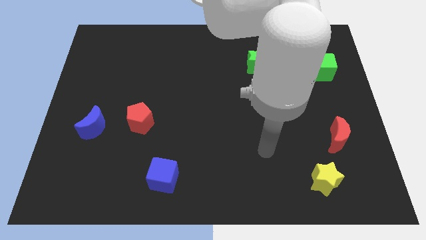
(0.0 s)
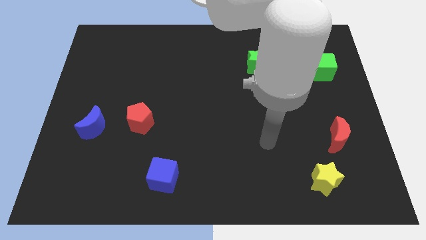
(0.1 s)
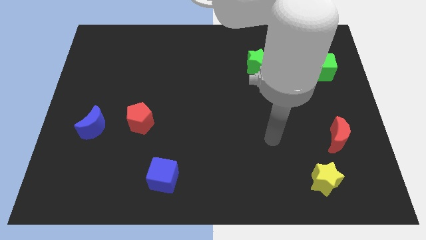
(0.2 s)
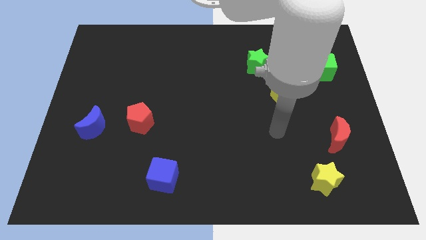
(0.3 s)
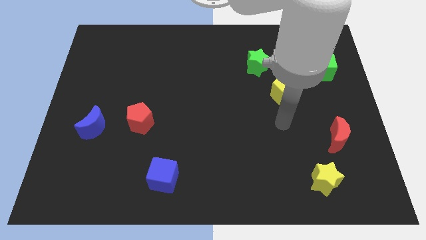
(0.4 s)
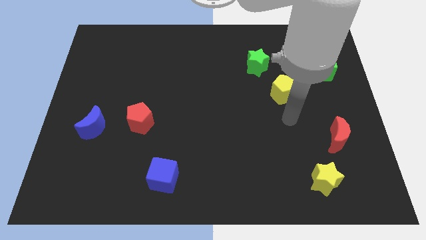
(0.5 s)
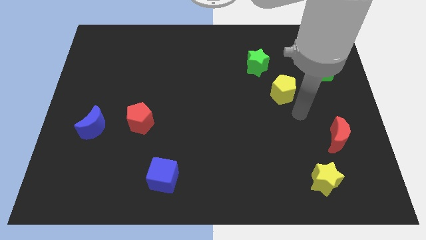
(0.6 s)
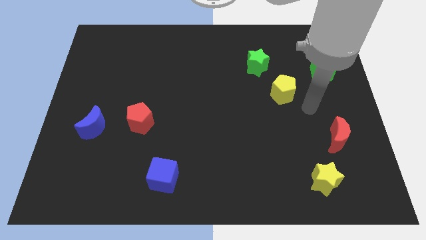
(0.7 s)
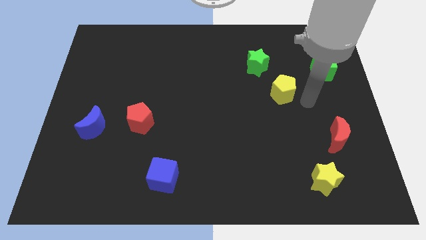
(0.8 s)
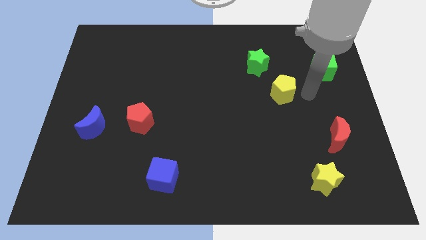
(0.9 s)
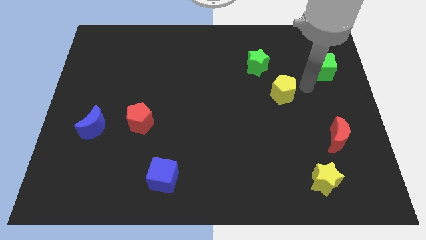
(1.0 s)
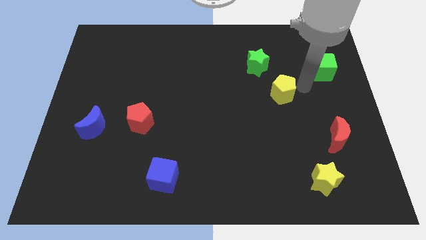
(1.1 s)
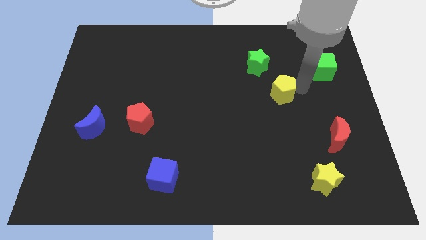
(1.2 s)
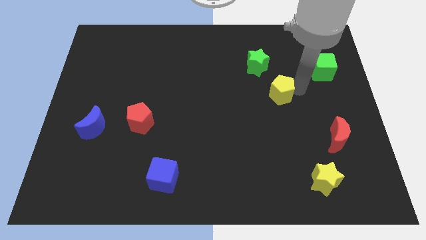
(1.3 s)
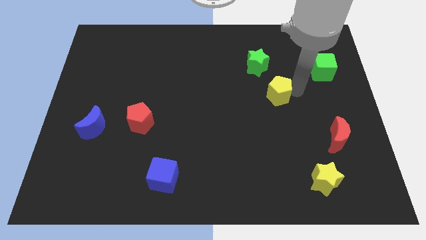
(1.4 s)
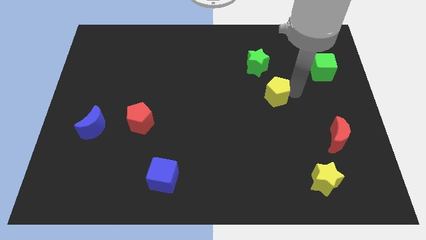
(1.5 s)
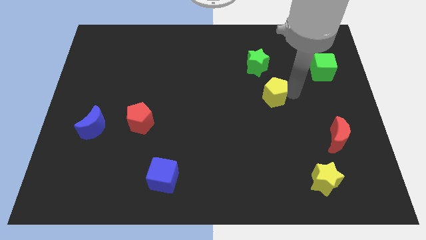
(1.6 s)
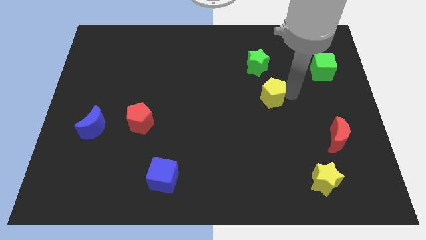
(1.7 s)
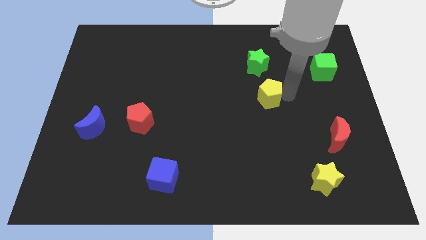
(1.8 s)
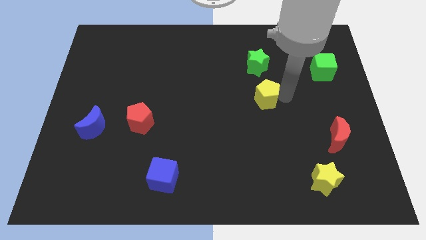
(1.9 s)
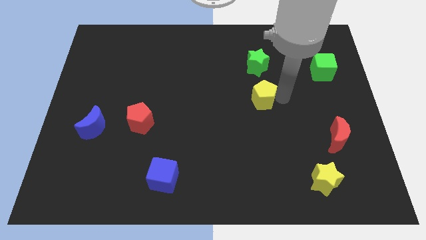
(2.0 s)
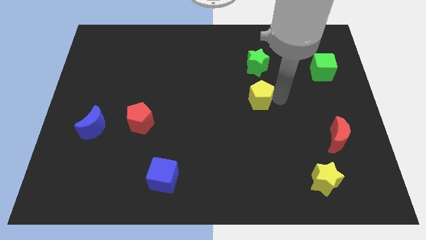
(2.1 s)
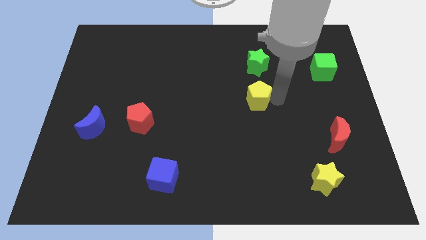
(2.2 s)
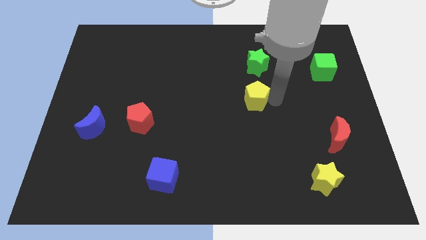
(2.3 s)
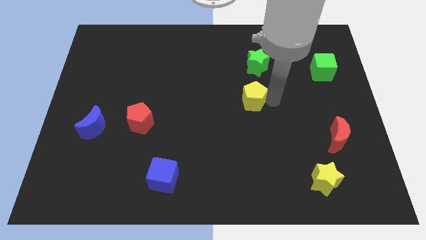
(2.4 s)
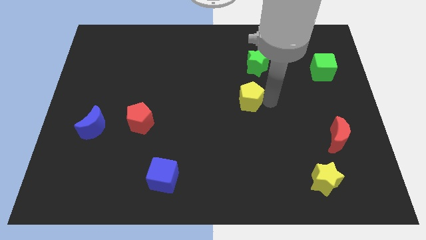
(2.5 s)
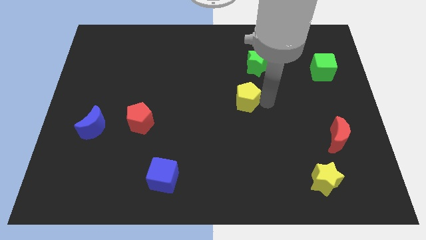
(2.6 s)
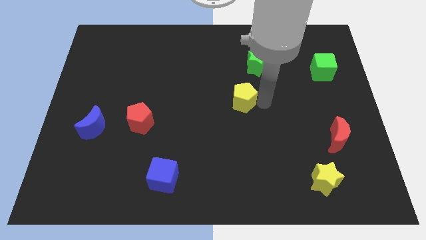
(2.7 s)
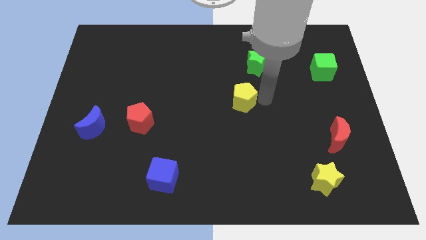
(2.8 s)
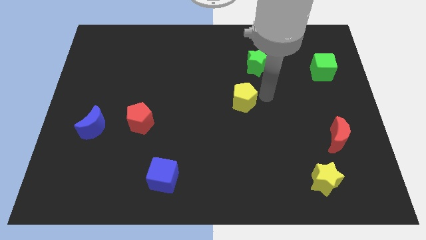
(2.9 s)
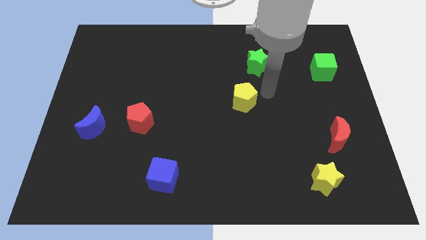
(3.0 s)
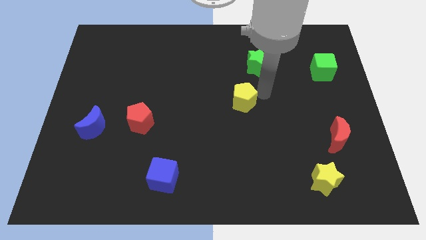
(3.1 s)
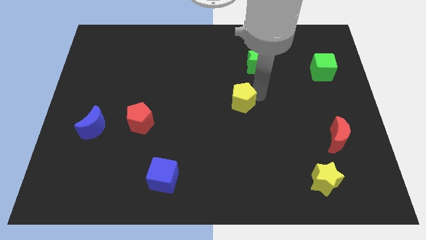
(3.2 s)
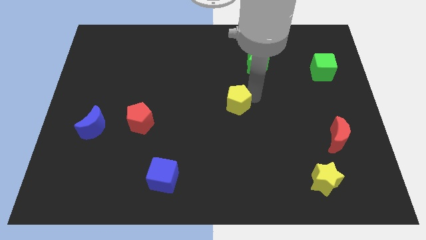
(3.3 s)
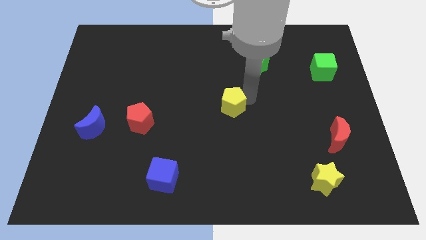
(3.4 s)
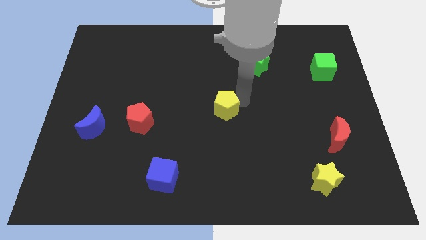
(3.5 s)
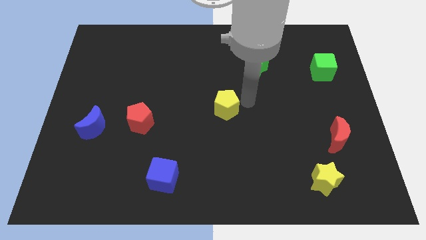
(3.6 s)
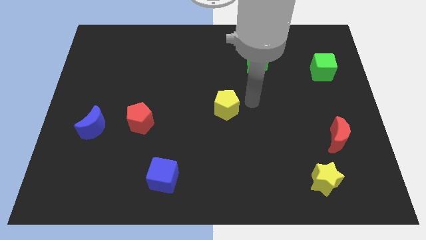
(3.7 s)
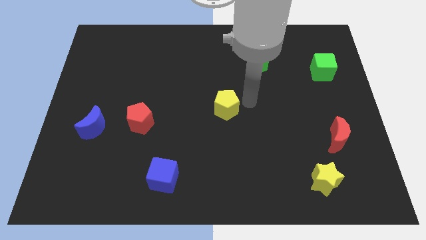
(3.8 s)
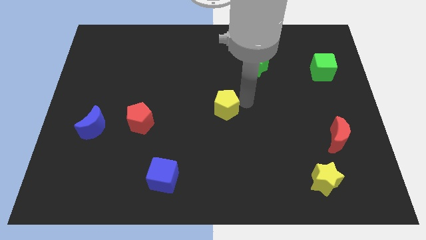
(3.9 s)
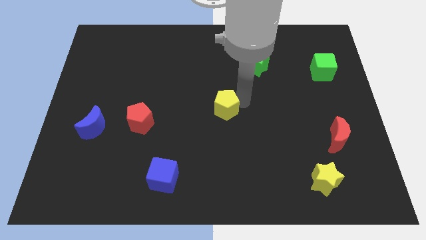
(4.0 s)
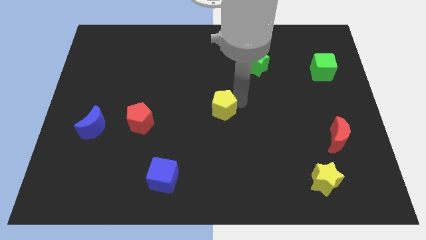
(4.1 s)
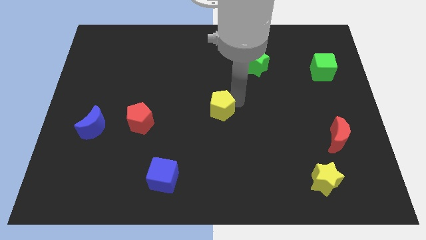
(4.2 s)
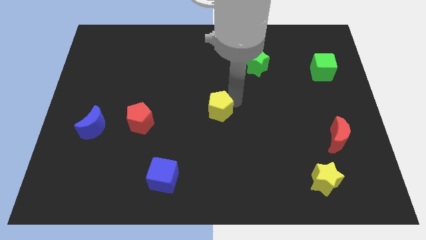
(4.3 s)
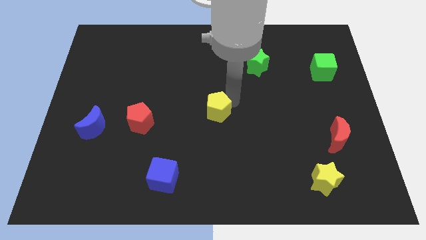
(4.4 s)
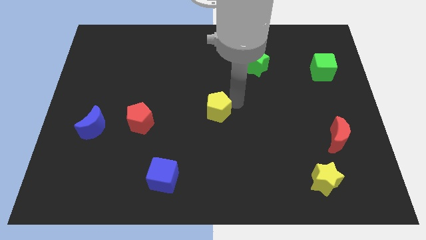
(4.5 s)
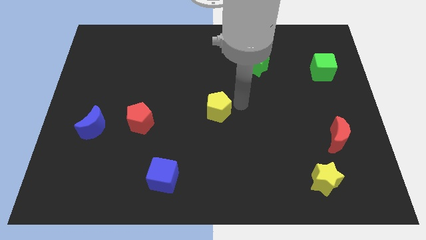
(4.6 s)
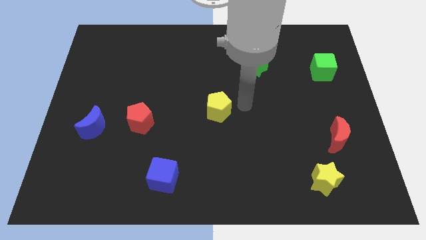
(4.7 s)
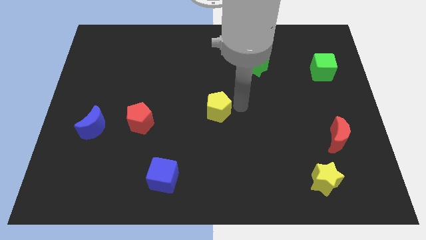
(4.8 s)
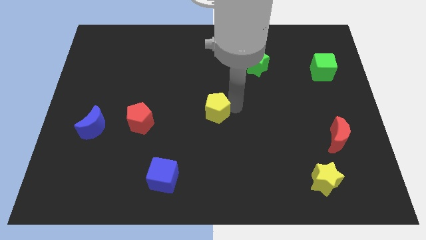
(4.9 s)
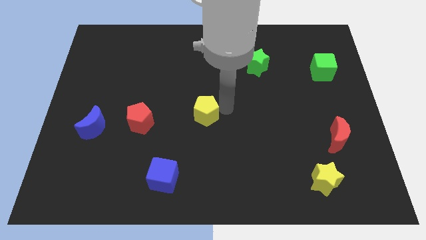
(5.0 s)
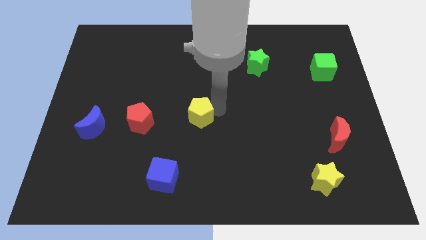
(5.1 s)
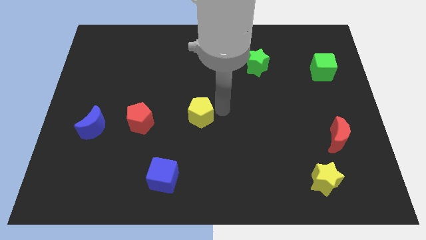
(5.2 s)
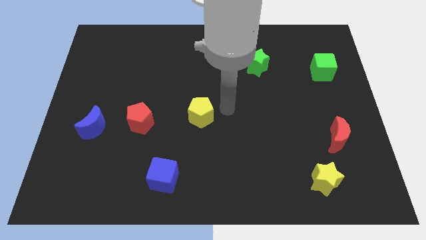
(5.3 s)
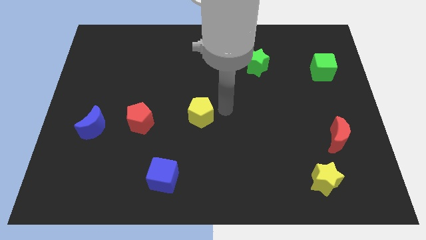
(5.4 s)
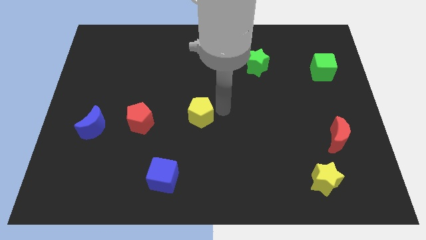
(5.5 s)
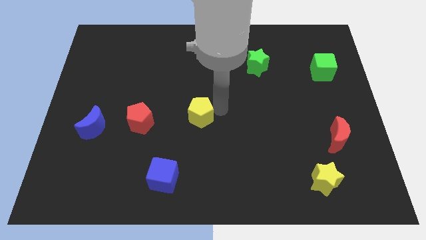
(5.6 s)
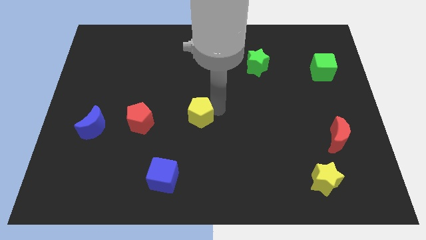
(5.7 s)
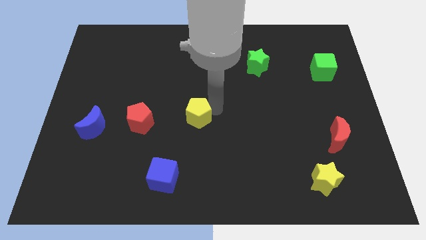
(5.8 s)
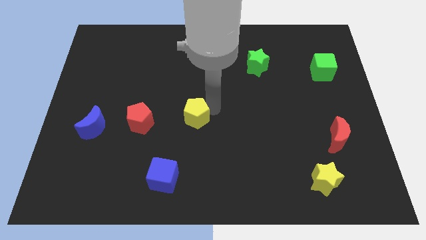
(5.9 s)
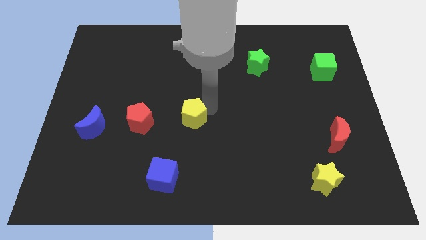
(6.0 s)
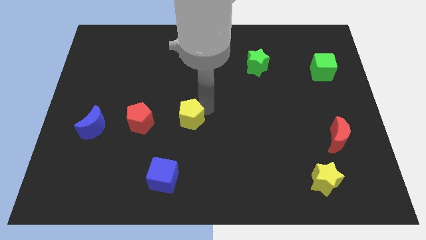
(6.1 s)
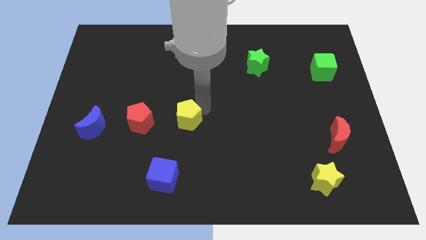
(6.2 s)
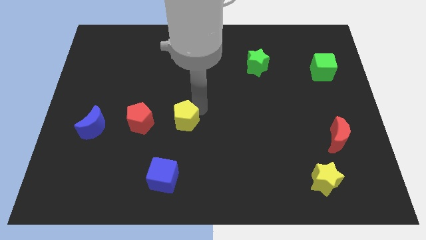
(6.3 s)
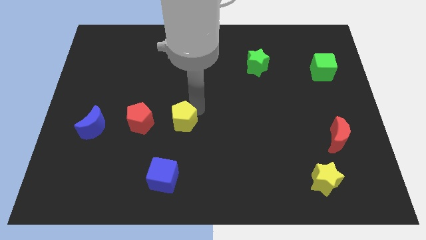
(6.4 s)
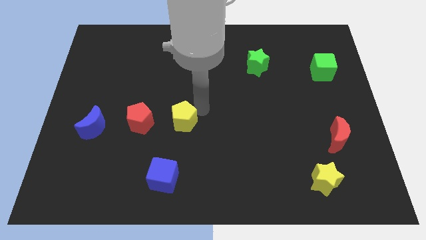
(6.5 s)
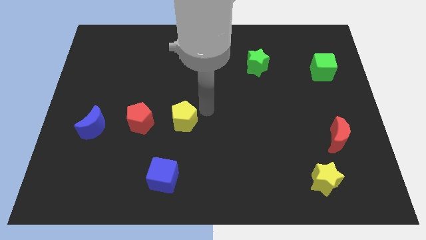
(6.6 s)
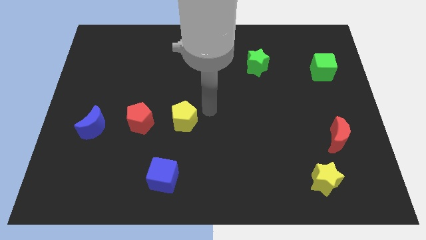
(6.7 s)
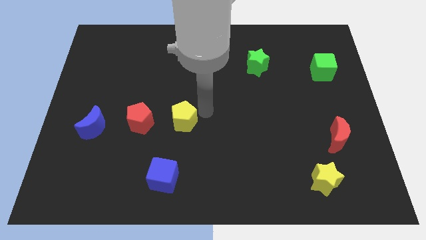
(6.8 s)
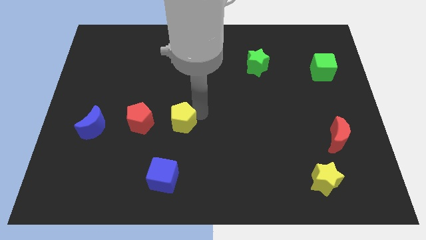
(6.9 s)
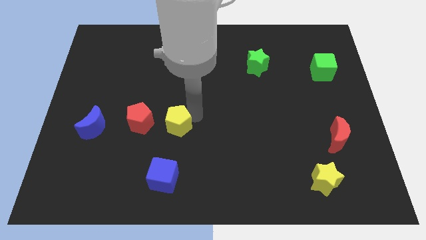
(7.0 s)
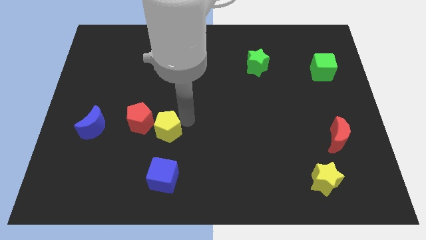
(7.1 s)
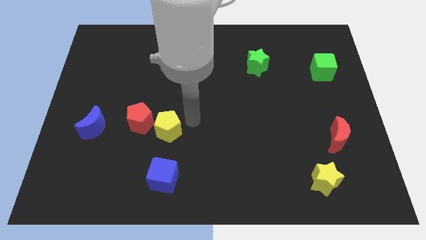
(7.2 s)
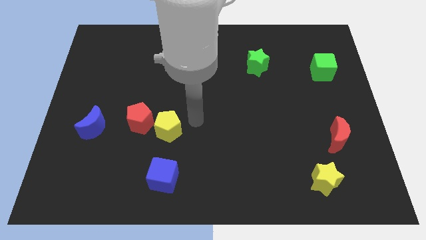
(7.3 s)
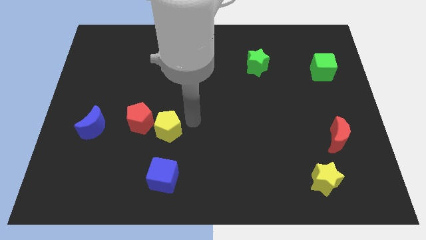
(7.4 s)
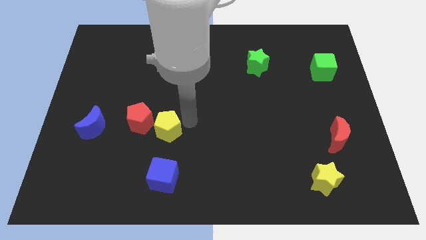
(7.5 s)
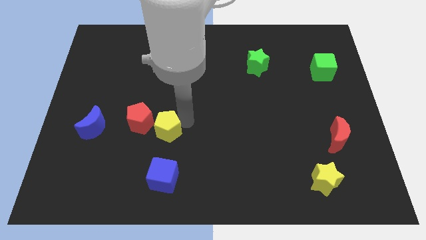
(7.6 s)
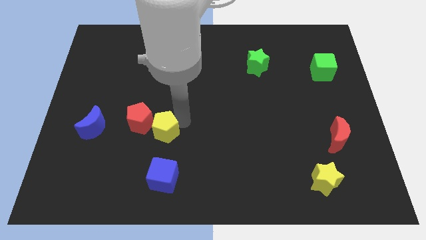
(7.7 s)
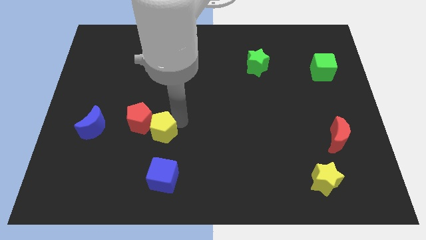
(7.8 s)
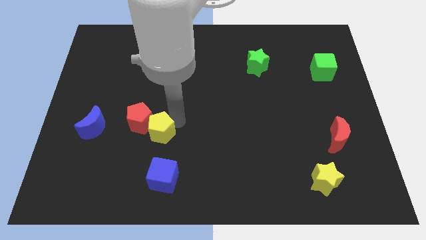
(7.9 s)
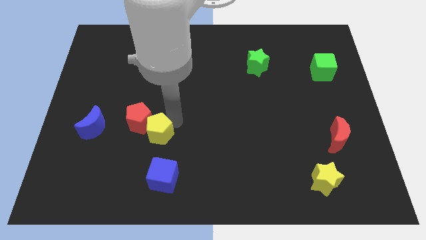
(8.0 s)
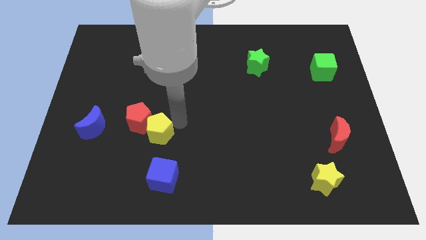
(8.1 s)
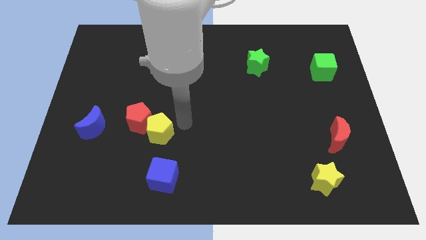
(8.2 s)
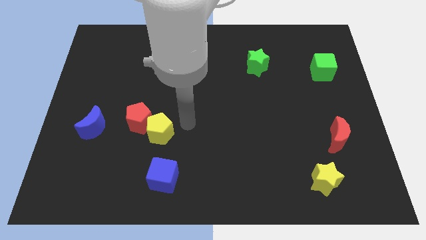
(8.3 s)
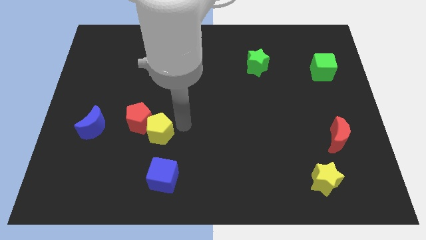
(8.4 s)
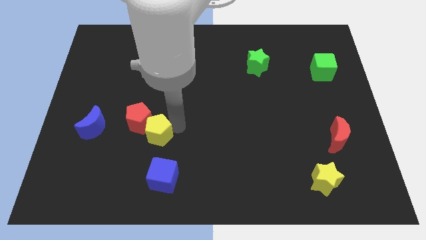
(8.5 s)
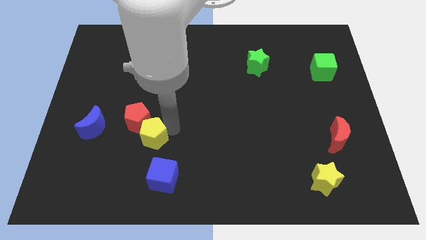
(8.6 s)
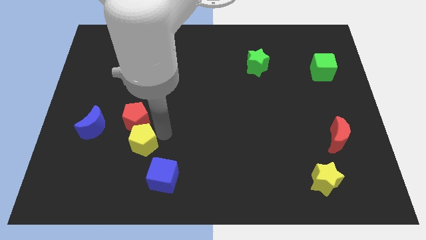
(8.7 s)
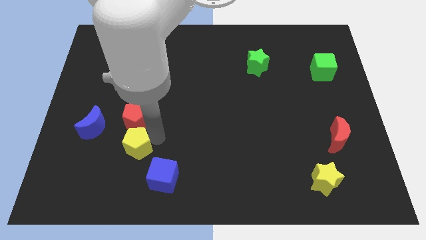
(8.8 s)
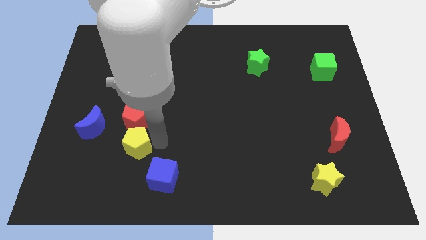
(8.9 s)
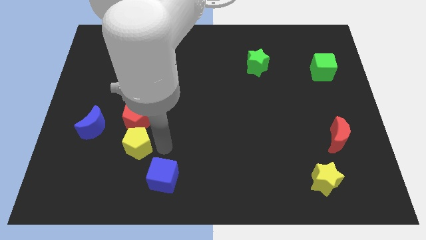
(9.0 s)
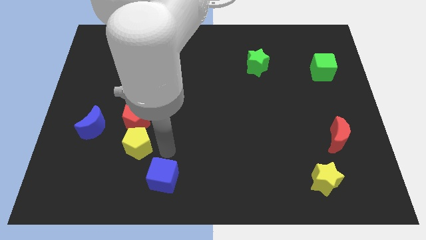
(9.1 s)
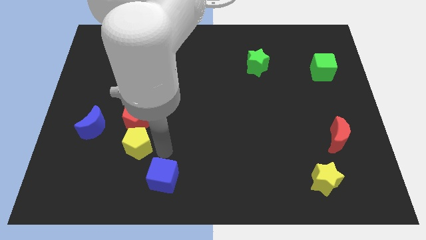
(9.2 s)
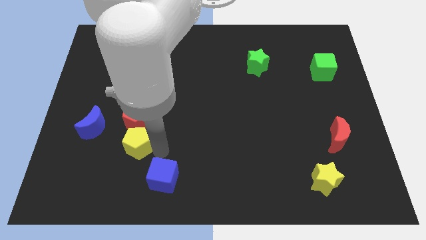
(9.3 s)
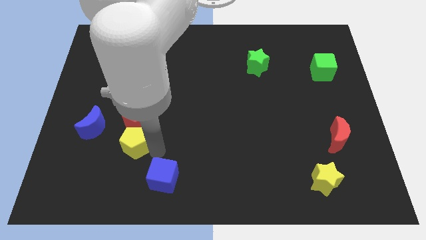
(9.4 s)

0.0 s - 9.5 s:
push the yellow pentagon diagonally down and to the left of the red pentagon
